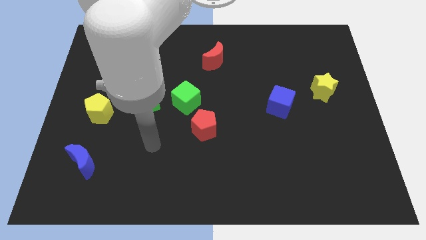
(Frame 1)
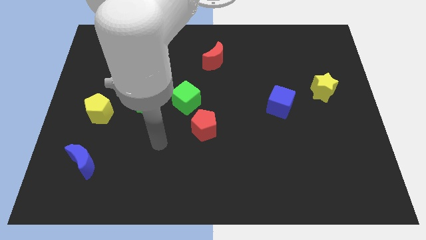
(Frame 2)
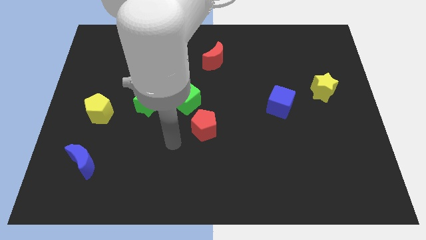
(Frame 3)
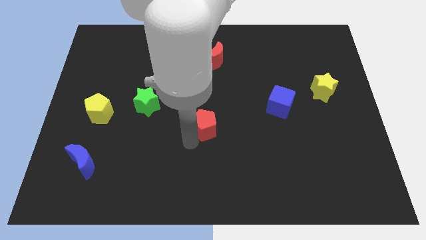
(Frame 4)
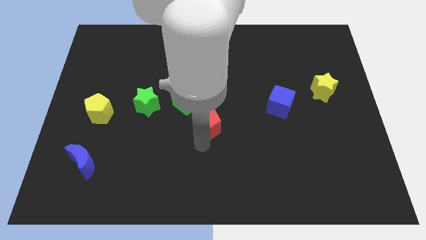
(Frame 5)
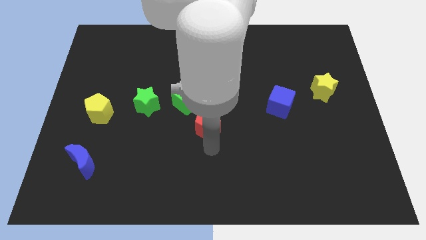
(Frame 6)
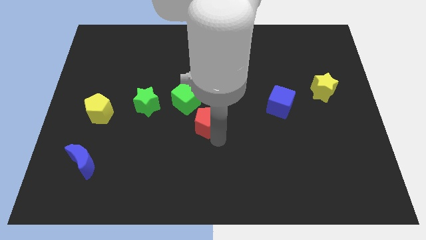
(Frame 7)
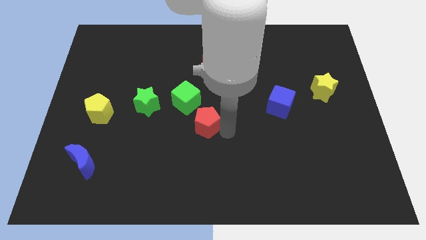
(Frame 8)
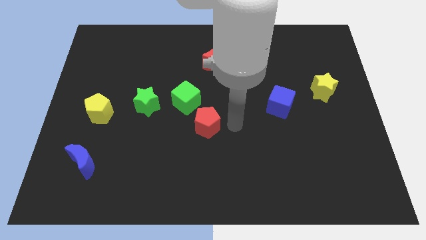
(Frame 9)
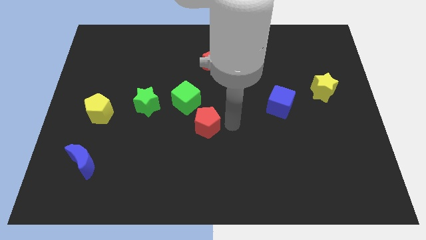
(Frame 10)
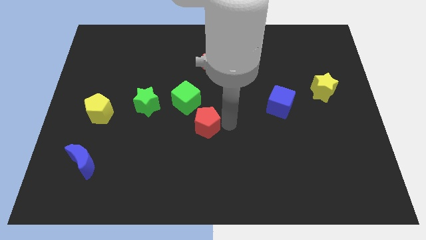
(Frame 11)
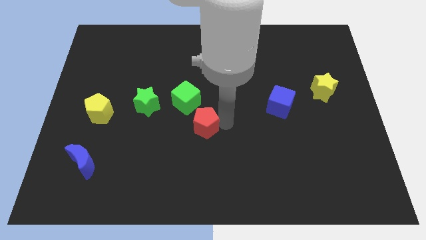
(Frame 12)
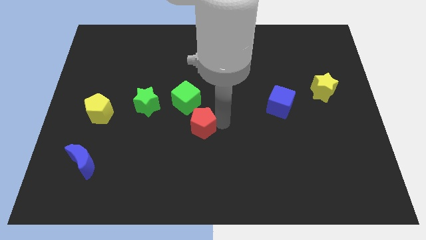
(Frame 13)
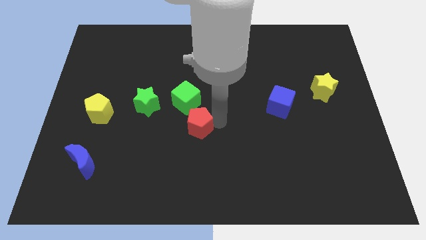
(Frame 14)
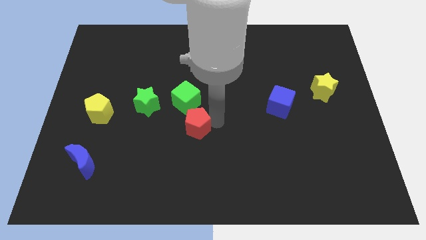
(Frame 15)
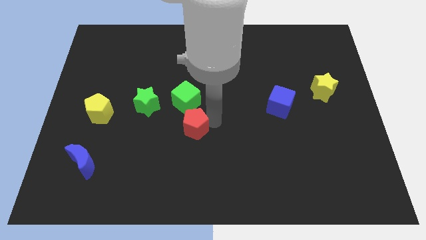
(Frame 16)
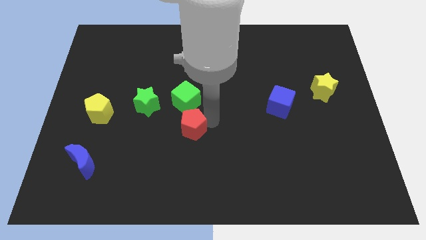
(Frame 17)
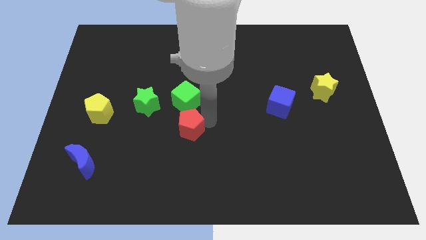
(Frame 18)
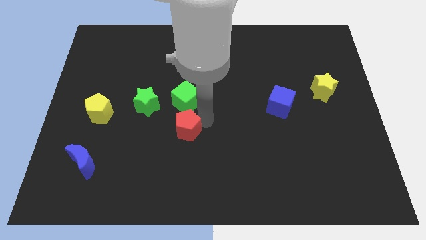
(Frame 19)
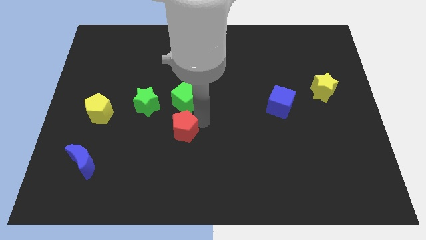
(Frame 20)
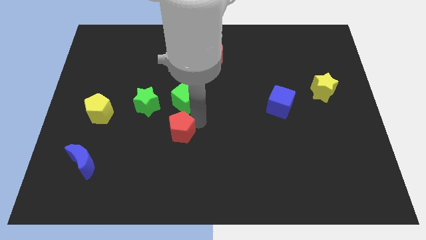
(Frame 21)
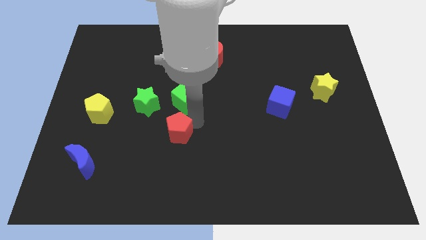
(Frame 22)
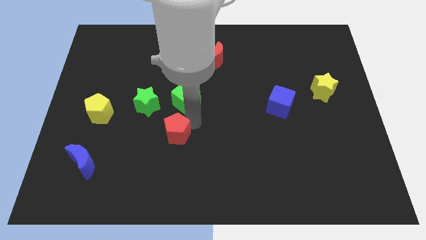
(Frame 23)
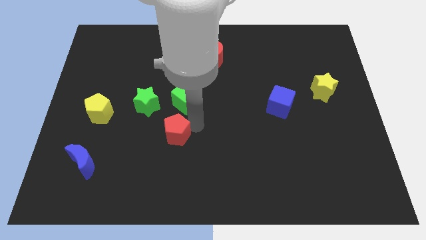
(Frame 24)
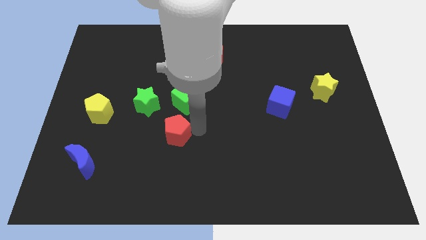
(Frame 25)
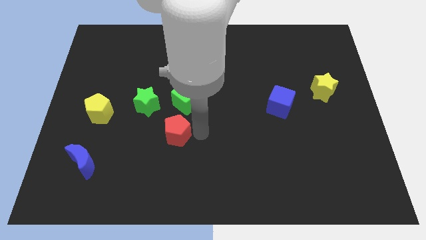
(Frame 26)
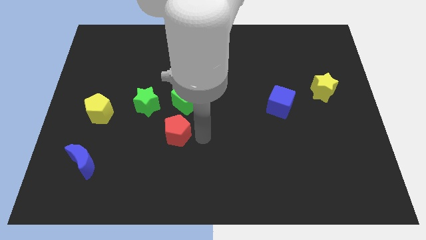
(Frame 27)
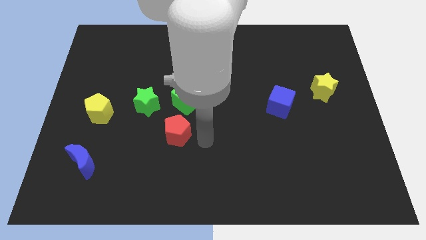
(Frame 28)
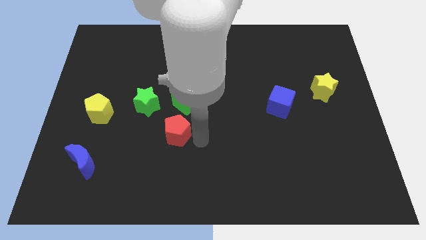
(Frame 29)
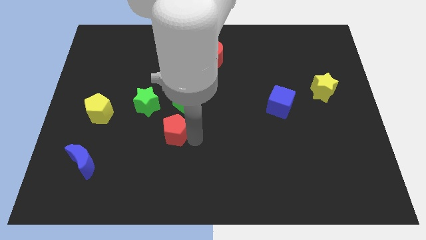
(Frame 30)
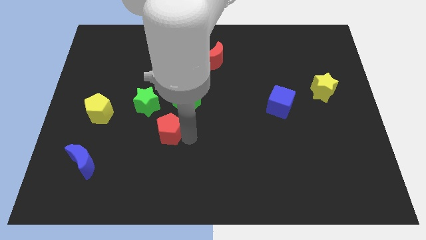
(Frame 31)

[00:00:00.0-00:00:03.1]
push the red pentagon left a bit

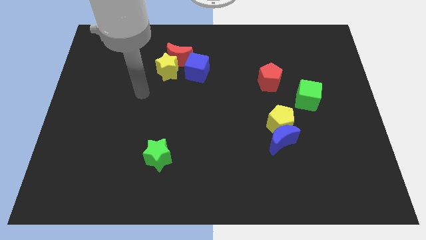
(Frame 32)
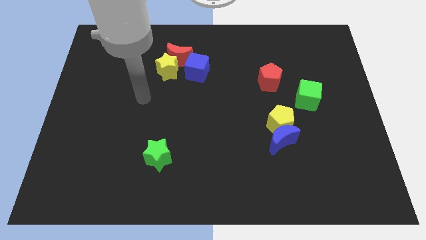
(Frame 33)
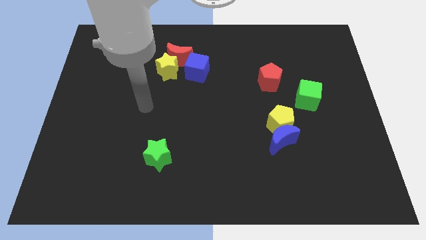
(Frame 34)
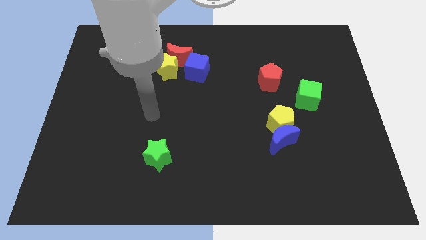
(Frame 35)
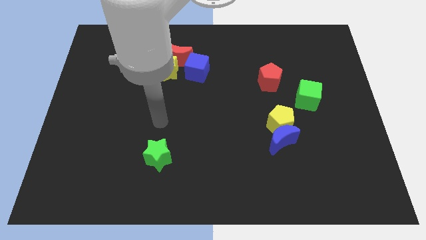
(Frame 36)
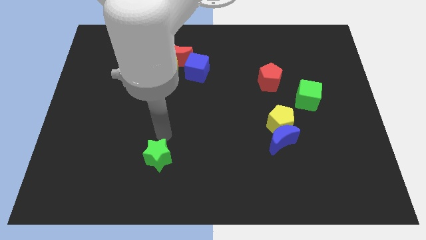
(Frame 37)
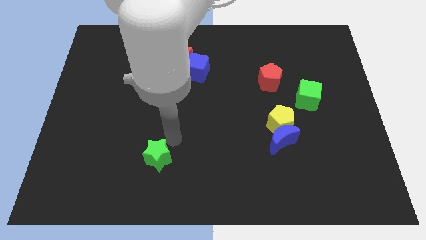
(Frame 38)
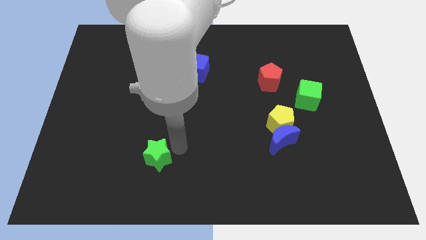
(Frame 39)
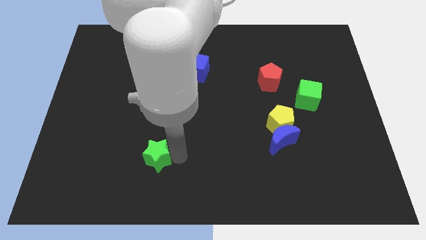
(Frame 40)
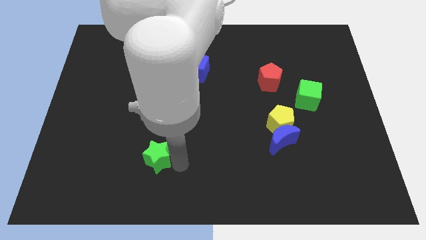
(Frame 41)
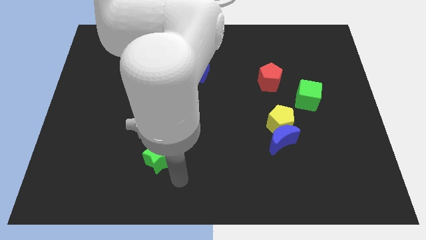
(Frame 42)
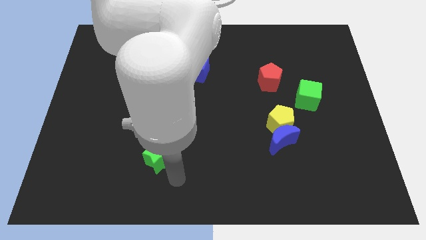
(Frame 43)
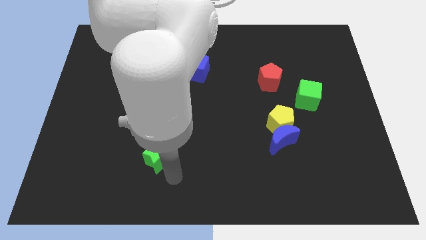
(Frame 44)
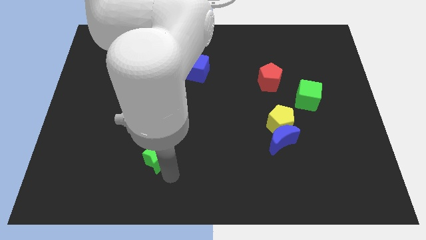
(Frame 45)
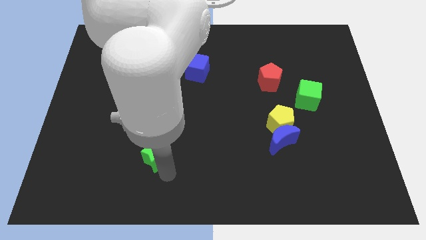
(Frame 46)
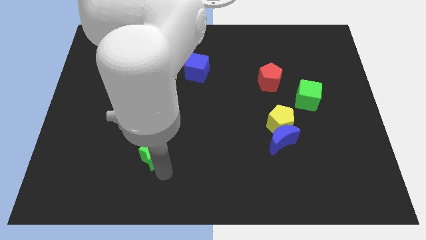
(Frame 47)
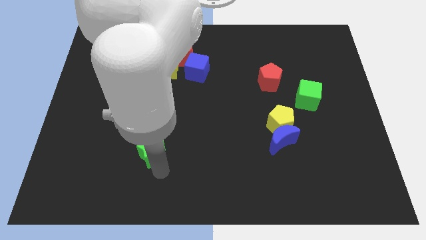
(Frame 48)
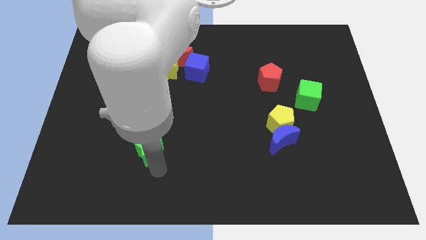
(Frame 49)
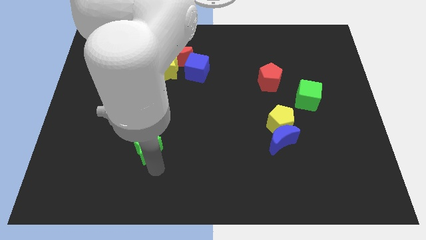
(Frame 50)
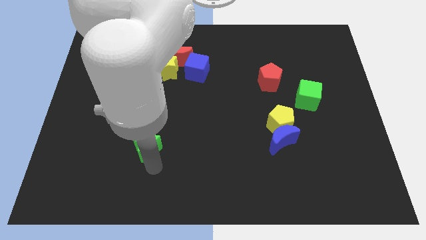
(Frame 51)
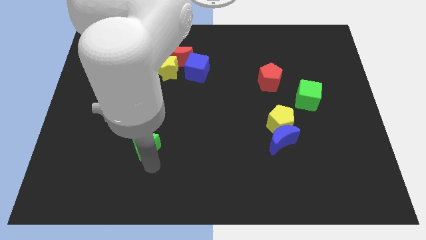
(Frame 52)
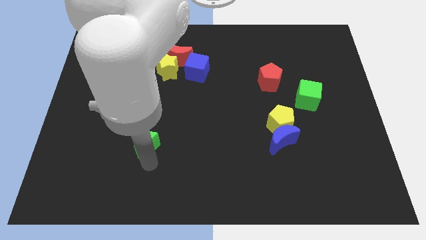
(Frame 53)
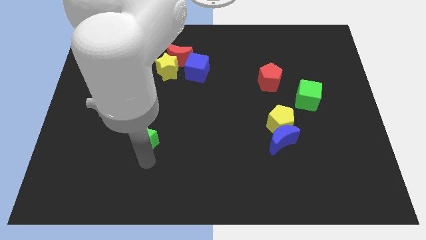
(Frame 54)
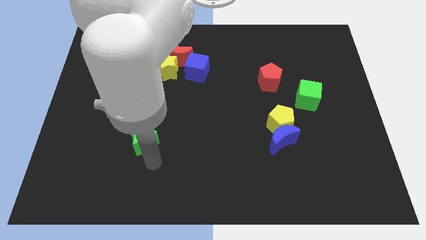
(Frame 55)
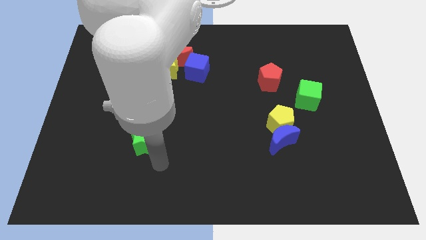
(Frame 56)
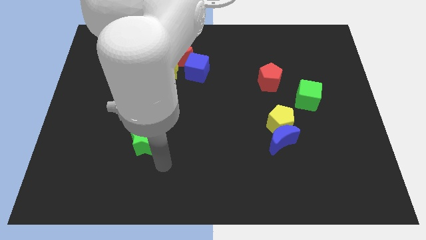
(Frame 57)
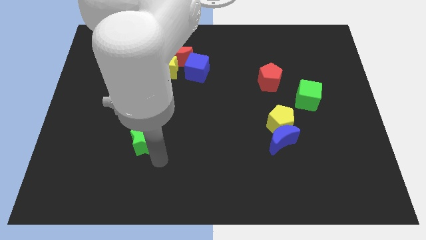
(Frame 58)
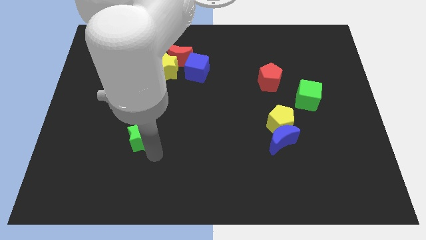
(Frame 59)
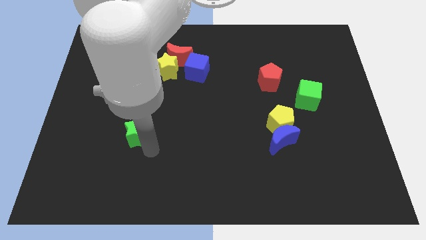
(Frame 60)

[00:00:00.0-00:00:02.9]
move the green star a little diagonally upwards and left

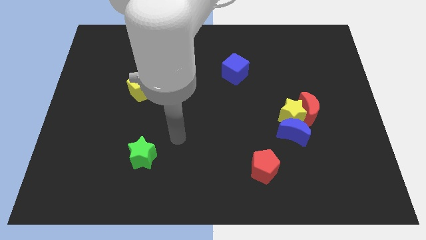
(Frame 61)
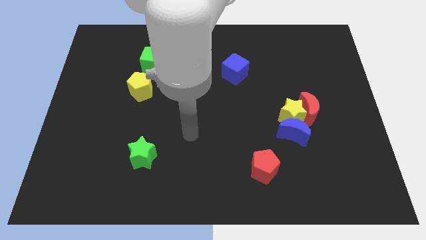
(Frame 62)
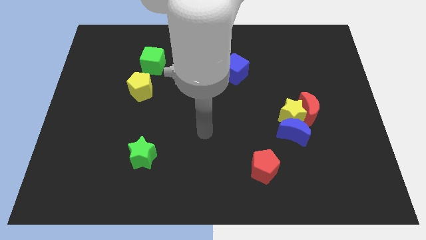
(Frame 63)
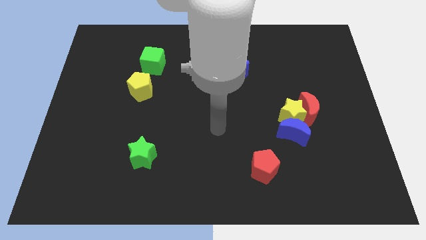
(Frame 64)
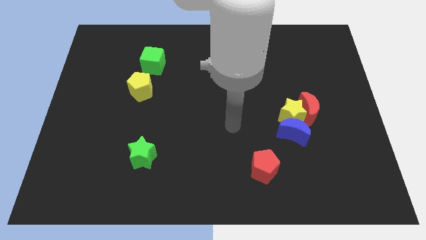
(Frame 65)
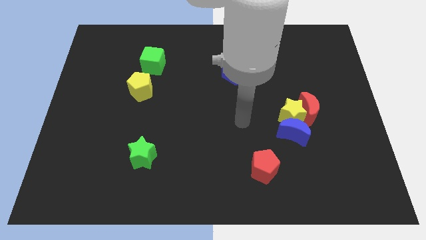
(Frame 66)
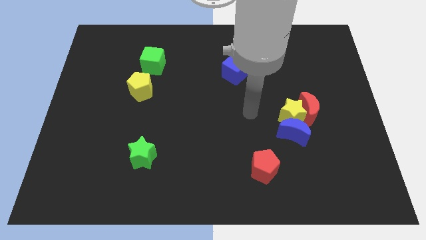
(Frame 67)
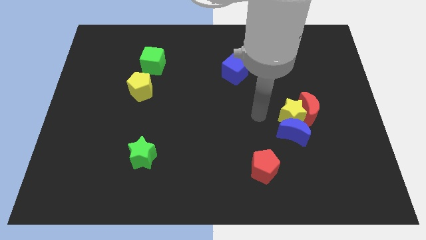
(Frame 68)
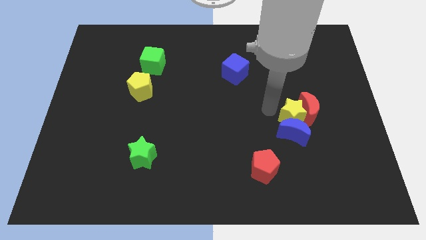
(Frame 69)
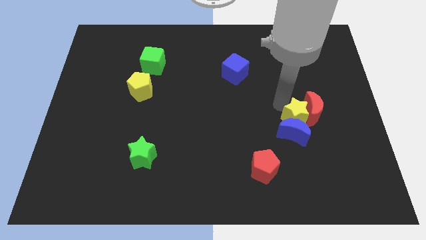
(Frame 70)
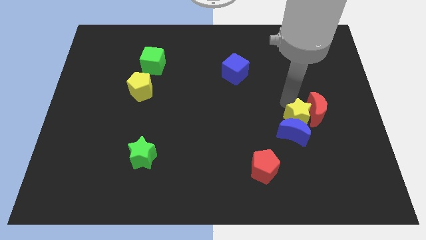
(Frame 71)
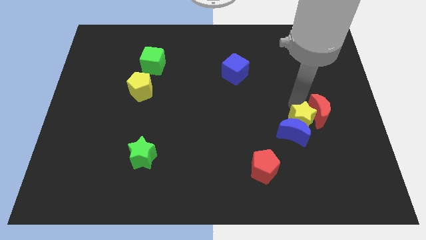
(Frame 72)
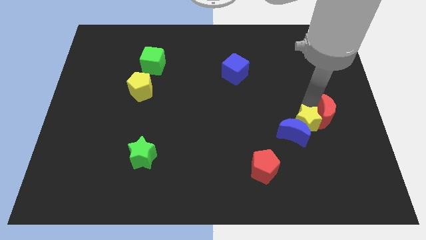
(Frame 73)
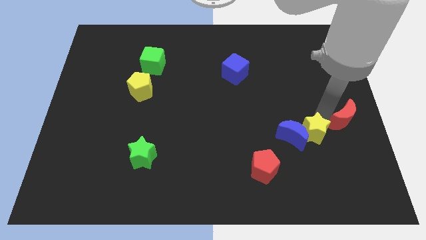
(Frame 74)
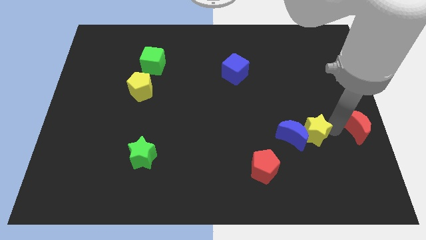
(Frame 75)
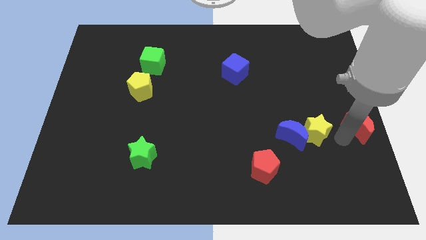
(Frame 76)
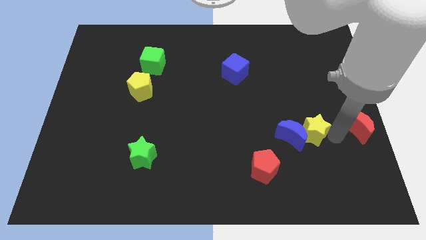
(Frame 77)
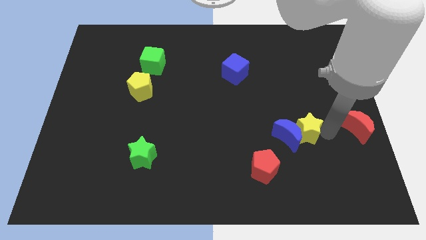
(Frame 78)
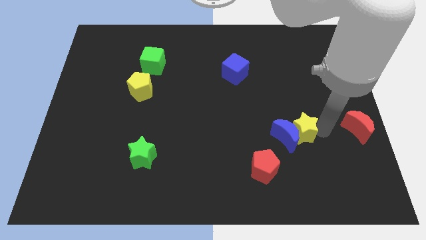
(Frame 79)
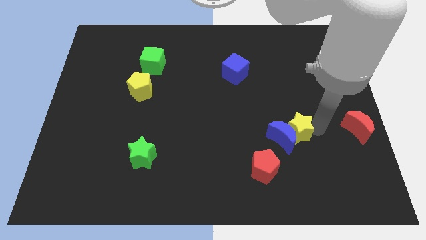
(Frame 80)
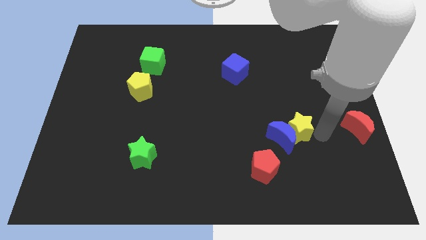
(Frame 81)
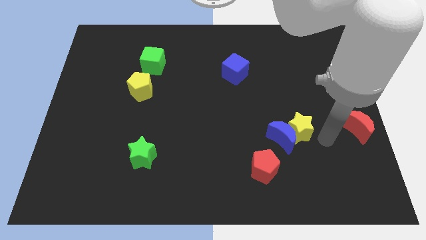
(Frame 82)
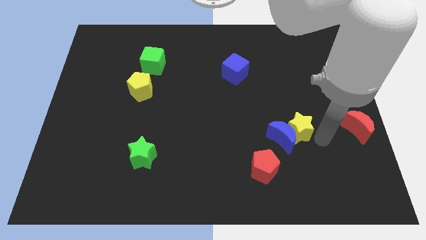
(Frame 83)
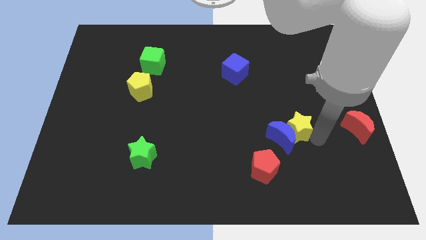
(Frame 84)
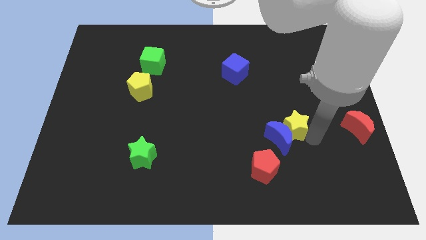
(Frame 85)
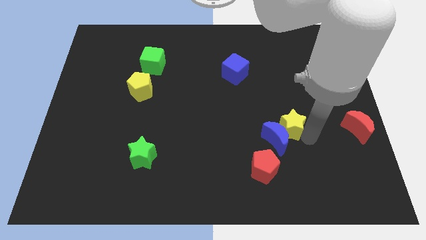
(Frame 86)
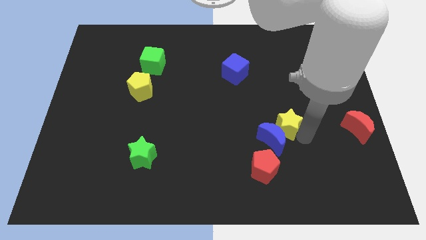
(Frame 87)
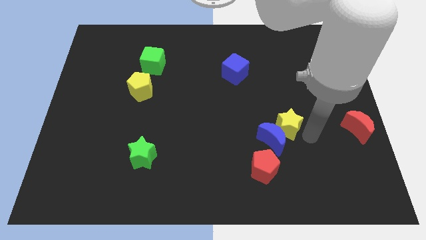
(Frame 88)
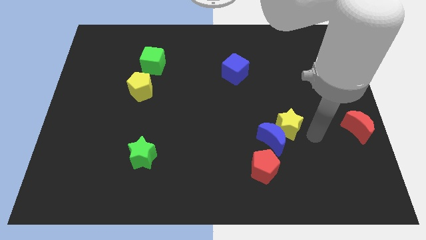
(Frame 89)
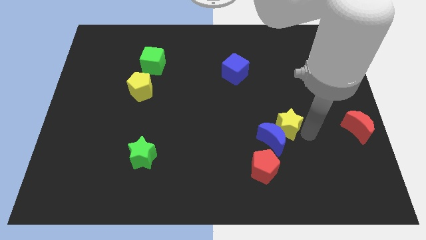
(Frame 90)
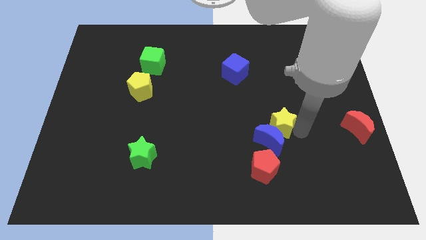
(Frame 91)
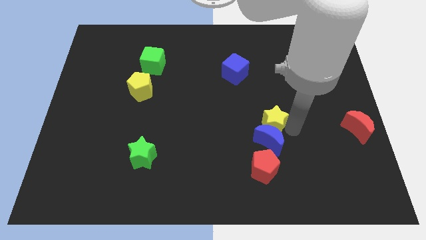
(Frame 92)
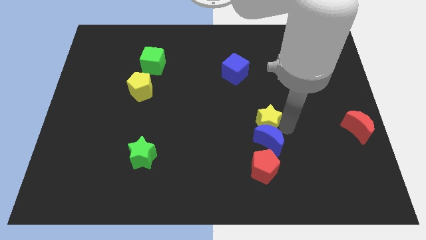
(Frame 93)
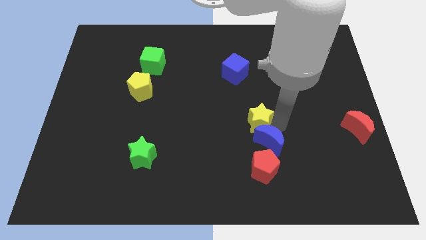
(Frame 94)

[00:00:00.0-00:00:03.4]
slide the yellow star left a bit
